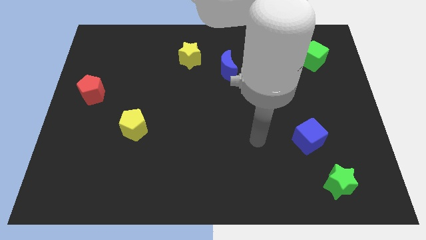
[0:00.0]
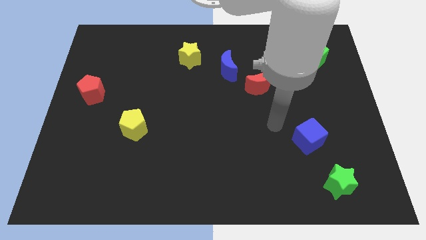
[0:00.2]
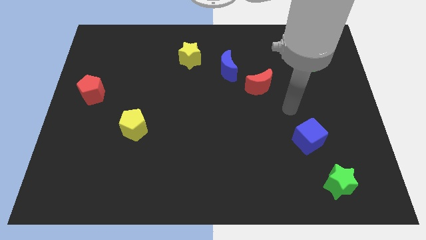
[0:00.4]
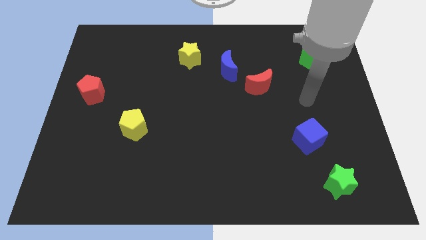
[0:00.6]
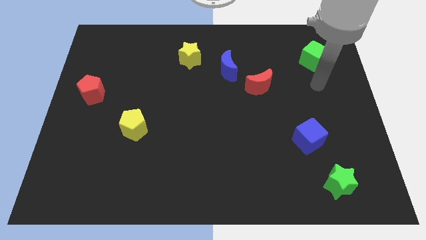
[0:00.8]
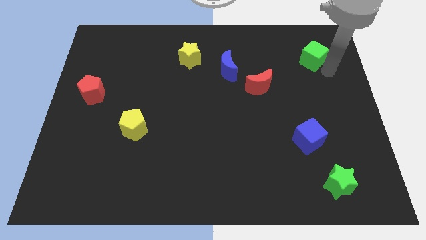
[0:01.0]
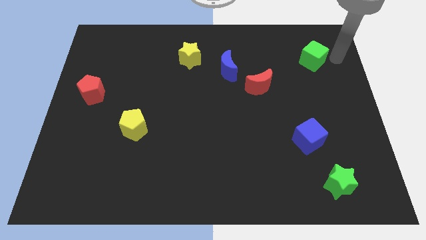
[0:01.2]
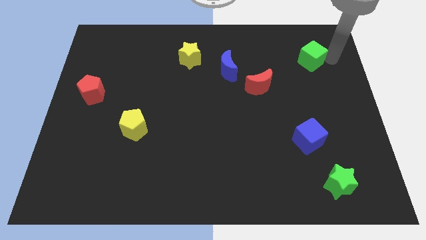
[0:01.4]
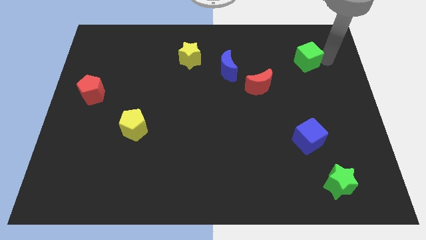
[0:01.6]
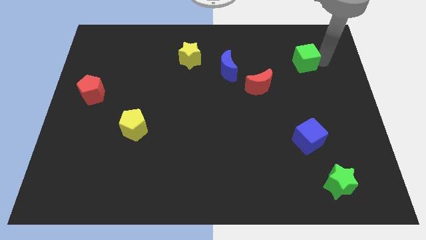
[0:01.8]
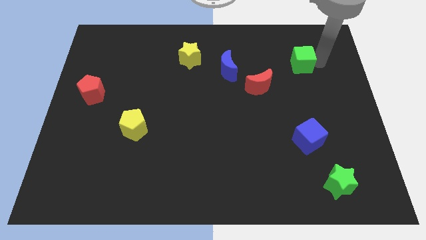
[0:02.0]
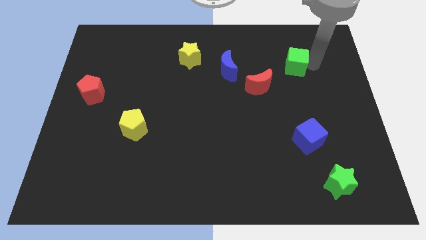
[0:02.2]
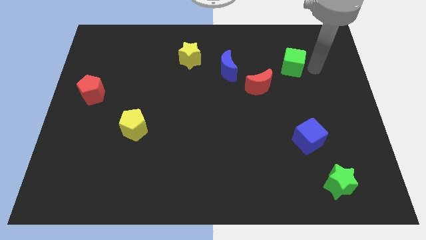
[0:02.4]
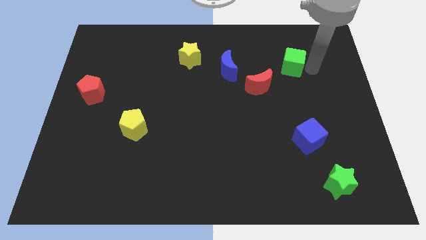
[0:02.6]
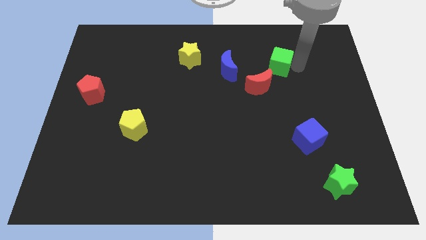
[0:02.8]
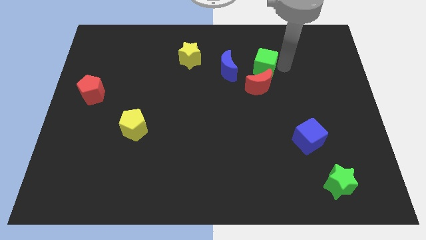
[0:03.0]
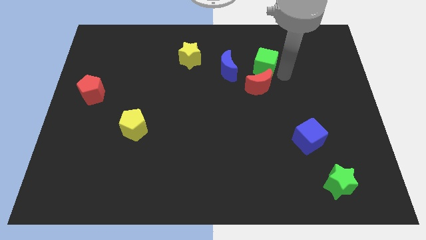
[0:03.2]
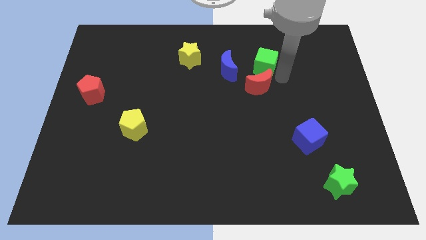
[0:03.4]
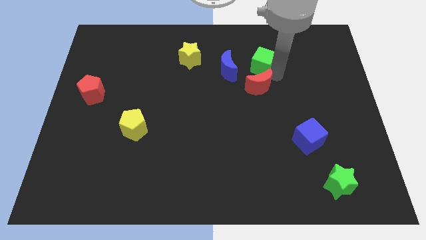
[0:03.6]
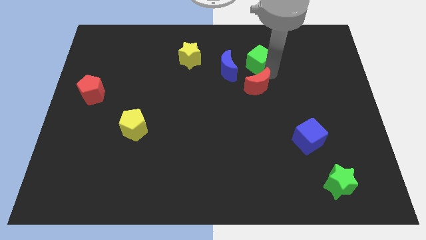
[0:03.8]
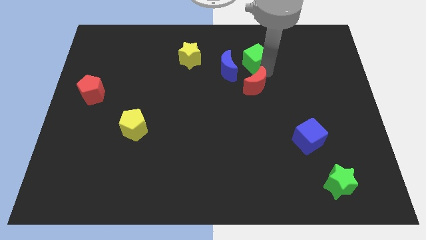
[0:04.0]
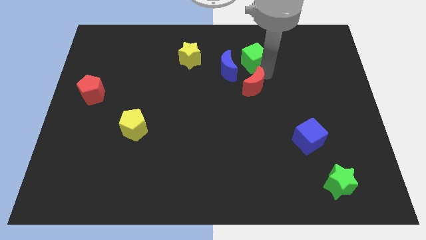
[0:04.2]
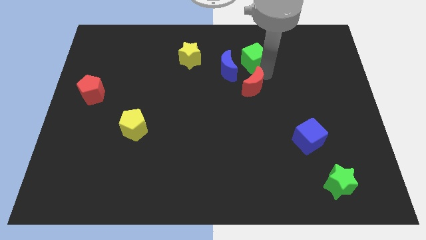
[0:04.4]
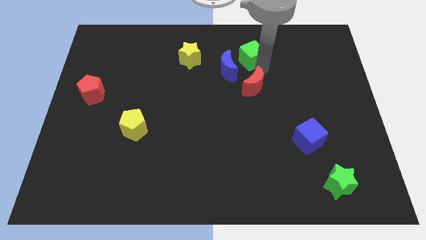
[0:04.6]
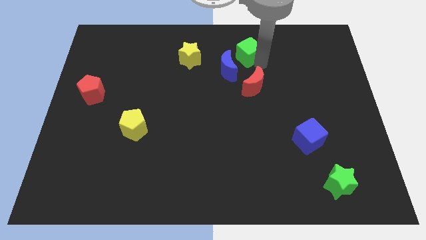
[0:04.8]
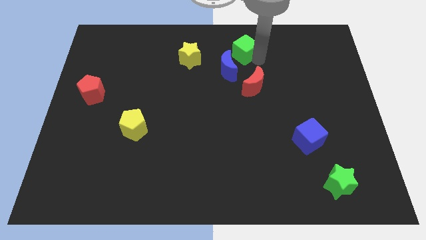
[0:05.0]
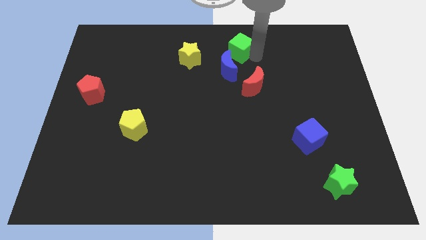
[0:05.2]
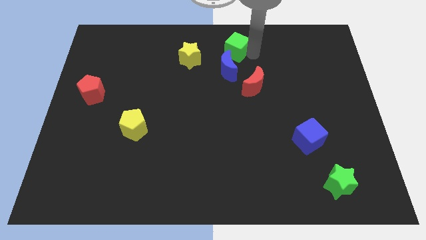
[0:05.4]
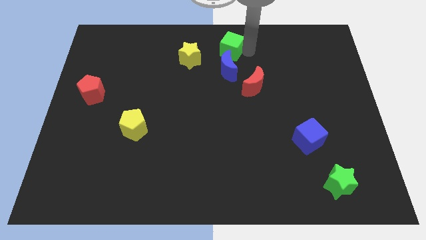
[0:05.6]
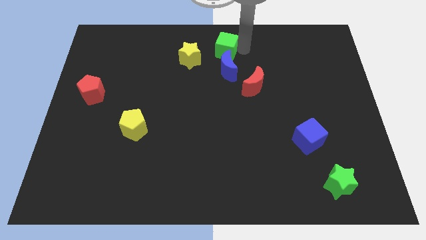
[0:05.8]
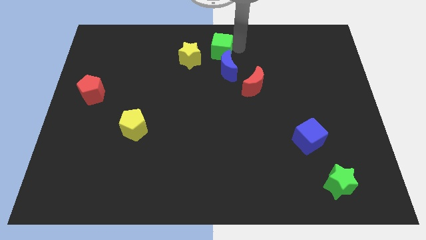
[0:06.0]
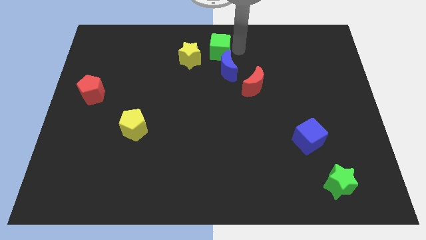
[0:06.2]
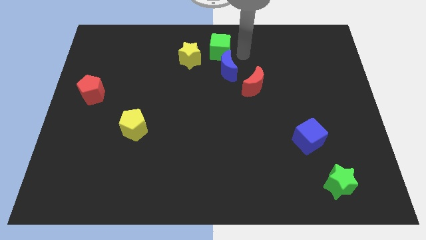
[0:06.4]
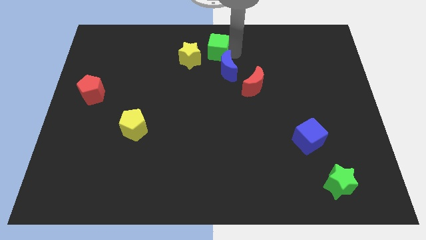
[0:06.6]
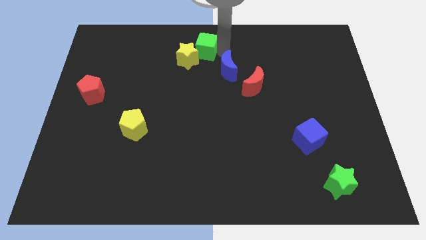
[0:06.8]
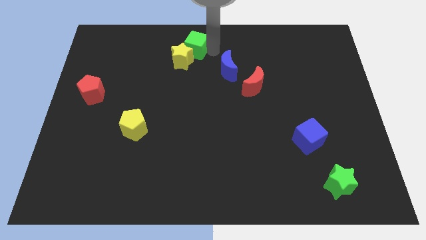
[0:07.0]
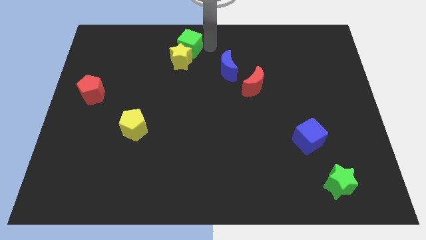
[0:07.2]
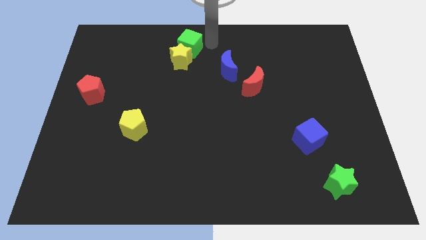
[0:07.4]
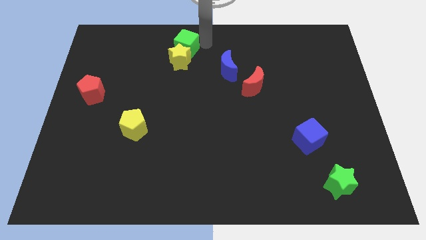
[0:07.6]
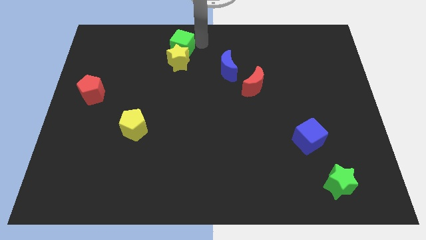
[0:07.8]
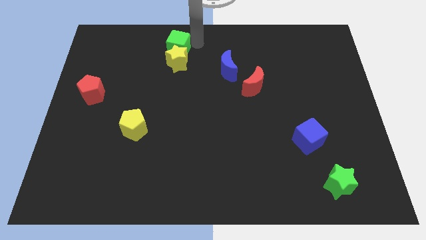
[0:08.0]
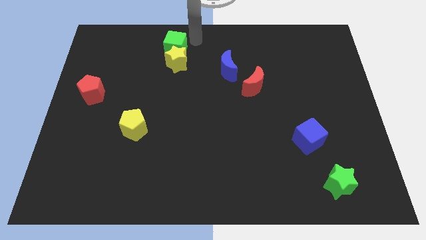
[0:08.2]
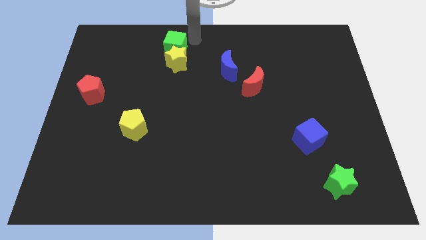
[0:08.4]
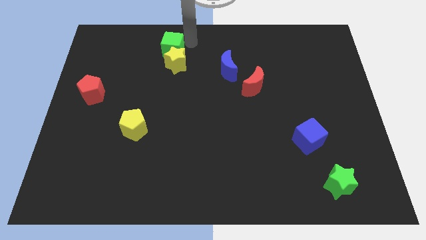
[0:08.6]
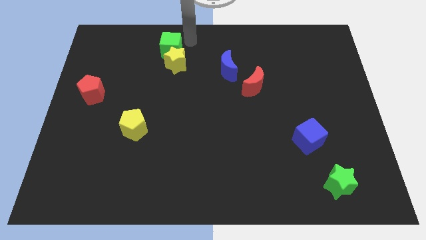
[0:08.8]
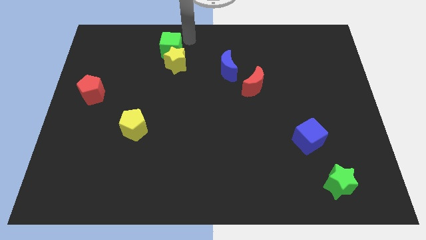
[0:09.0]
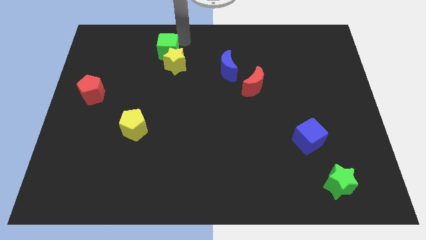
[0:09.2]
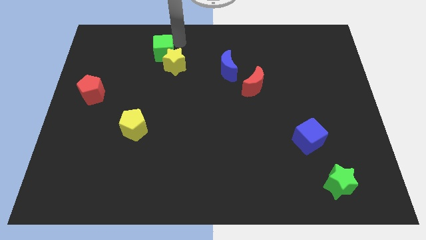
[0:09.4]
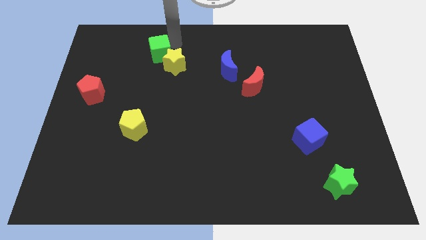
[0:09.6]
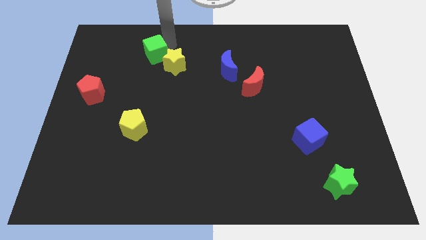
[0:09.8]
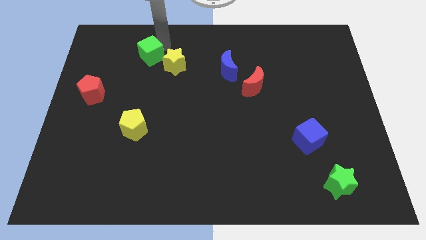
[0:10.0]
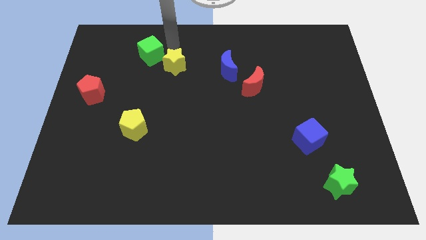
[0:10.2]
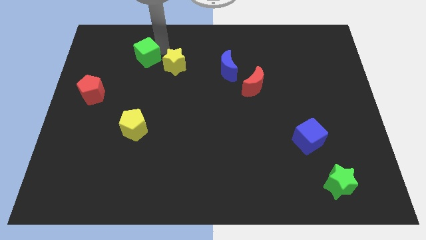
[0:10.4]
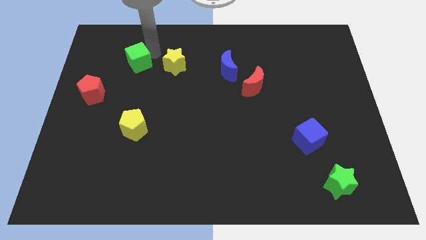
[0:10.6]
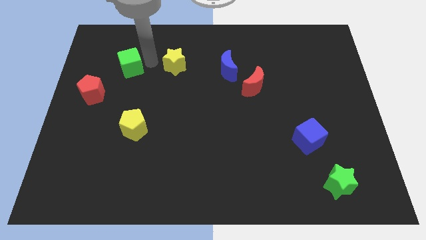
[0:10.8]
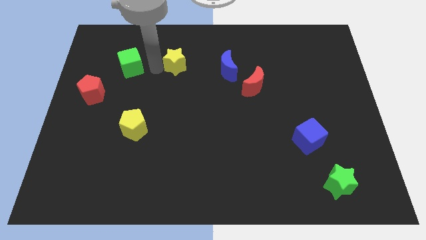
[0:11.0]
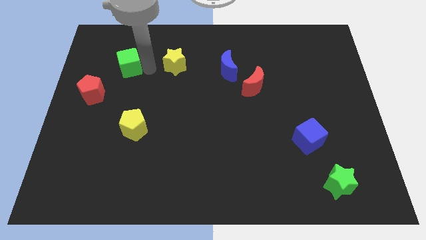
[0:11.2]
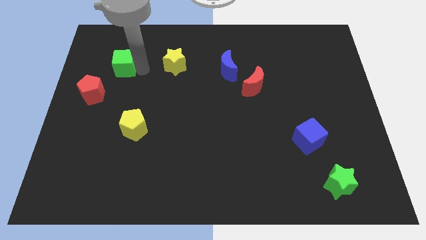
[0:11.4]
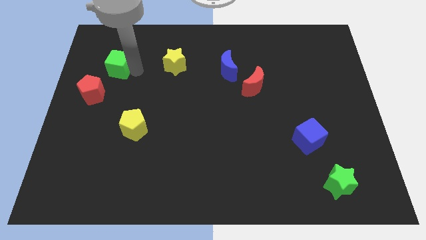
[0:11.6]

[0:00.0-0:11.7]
push the green cube to the top side of the red pentagon

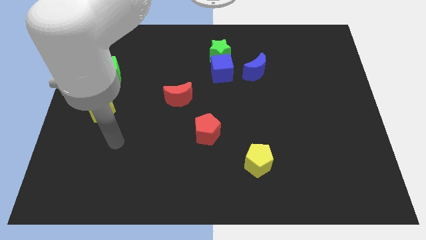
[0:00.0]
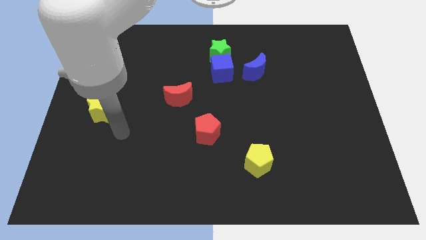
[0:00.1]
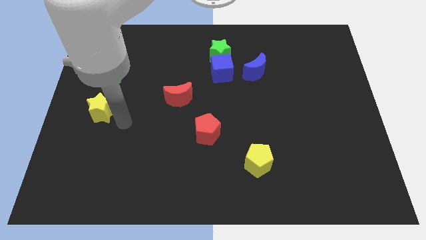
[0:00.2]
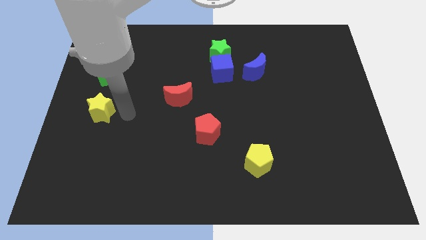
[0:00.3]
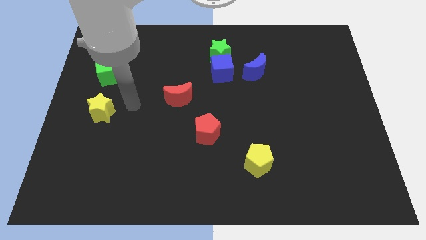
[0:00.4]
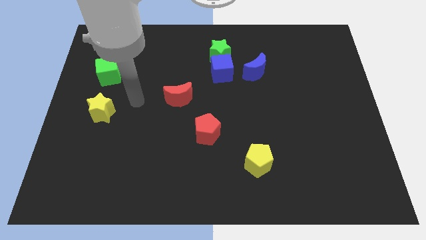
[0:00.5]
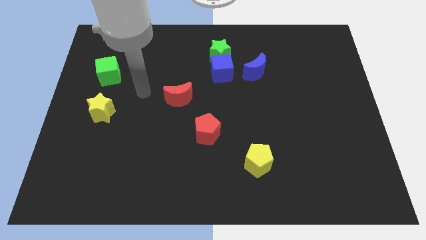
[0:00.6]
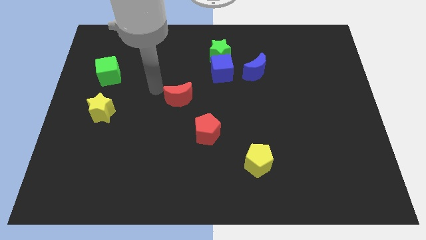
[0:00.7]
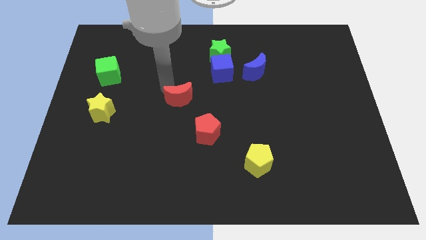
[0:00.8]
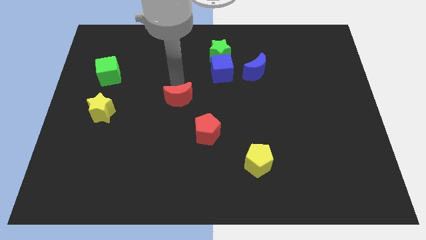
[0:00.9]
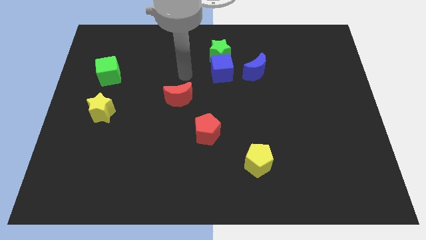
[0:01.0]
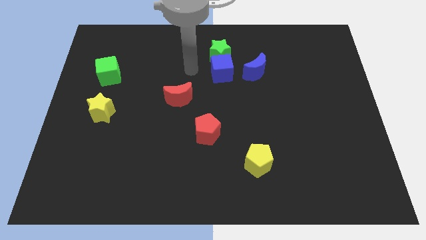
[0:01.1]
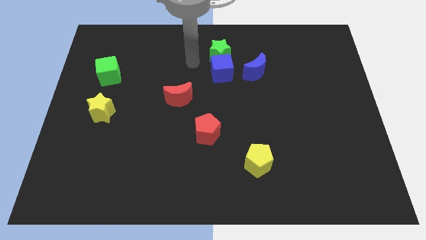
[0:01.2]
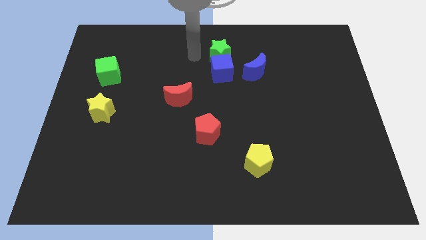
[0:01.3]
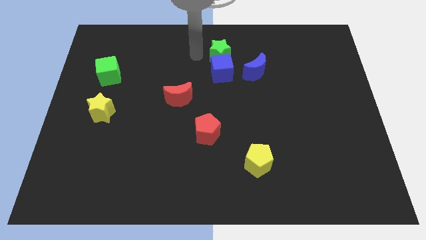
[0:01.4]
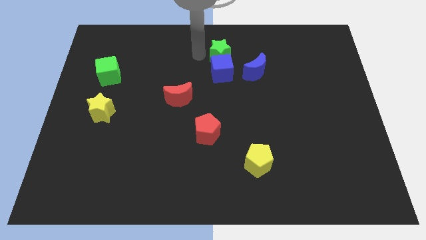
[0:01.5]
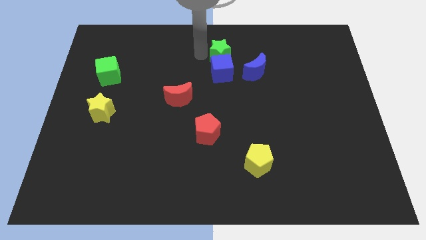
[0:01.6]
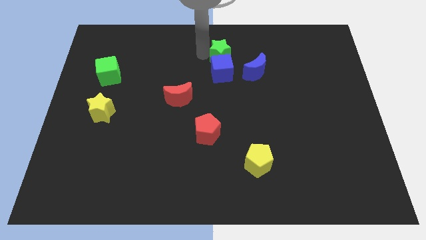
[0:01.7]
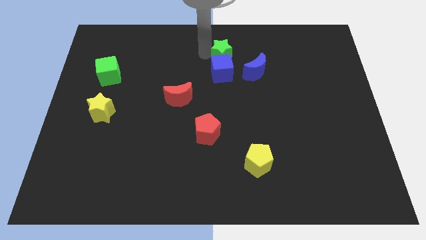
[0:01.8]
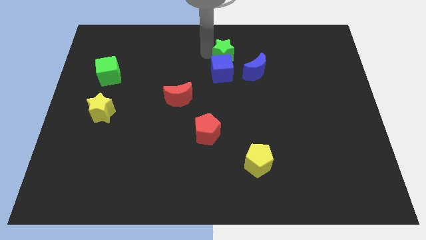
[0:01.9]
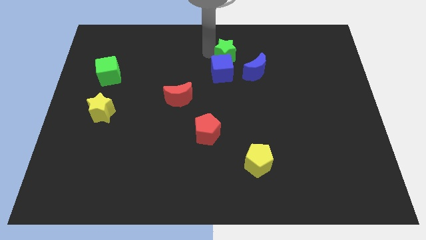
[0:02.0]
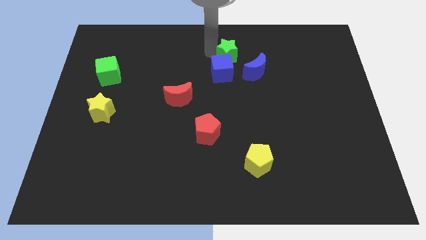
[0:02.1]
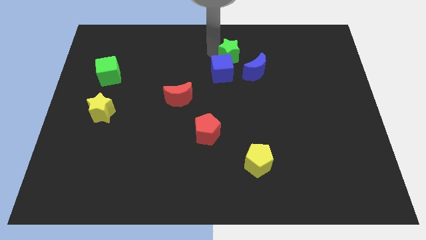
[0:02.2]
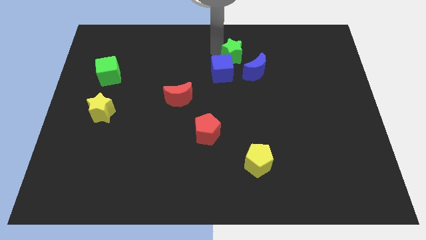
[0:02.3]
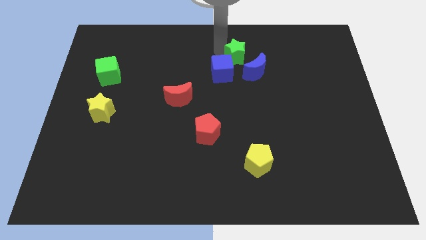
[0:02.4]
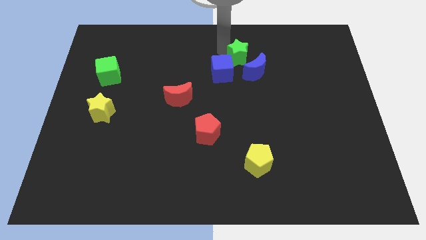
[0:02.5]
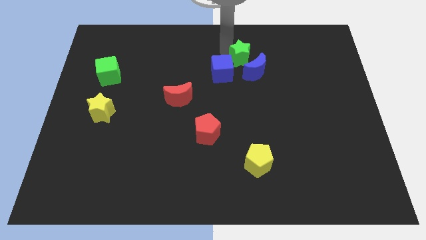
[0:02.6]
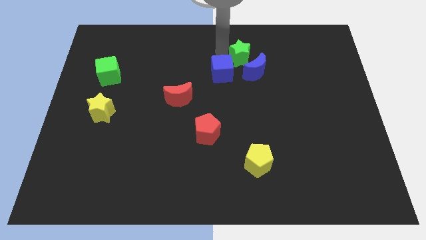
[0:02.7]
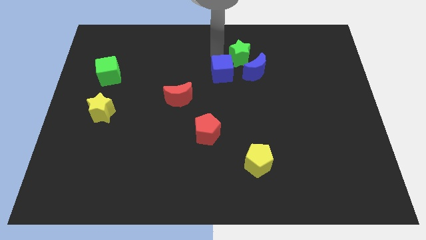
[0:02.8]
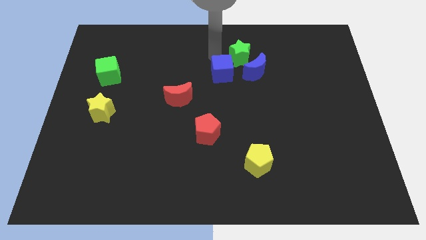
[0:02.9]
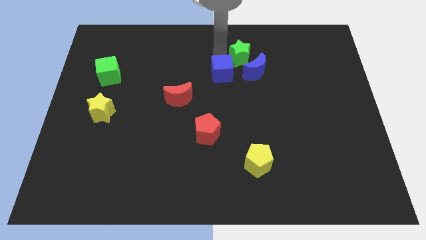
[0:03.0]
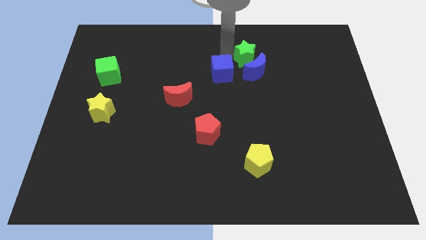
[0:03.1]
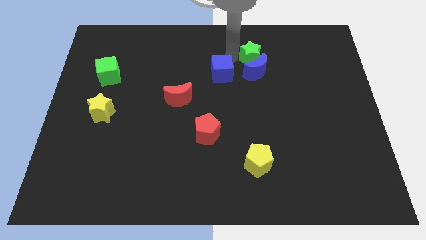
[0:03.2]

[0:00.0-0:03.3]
put the green star just right of the blue cube
